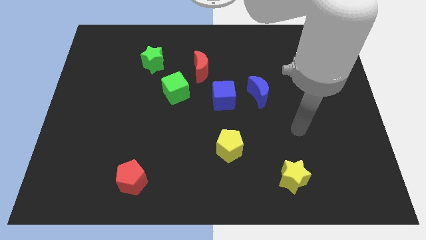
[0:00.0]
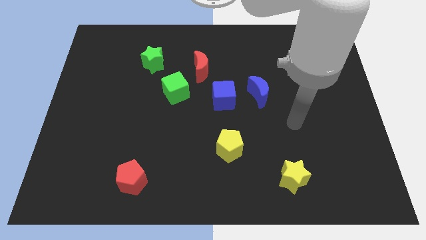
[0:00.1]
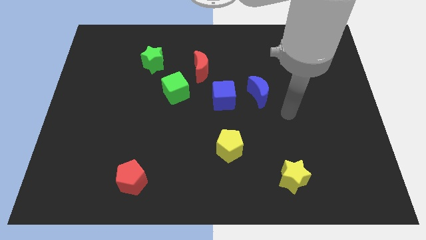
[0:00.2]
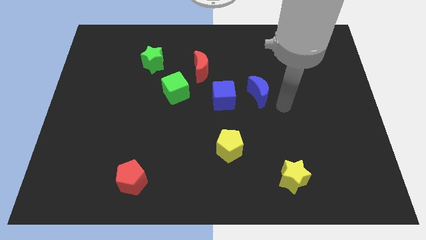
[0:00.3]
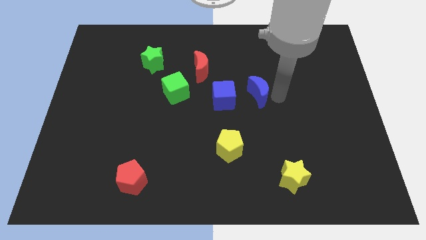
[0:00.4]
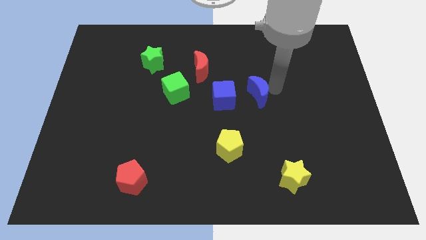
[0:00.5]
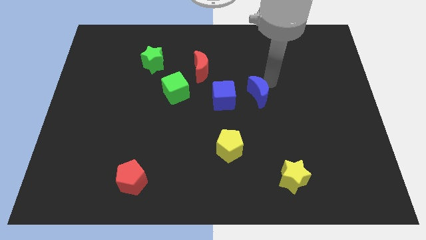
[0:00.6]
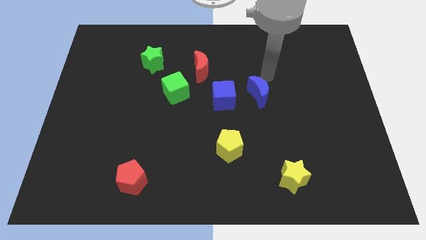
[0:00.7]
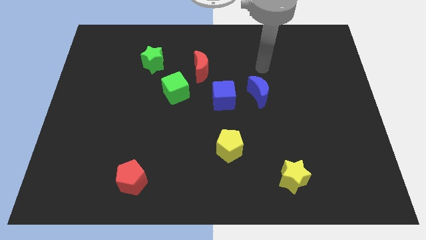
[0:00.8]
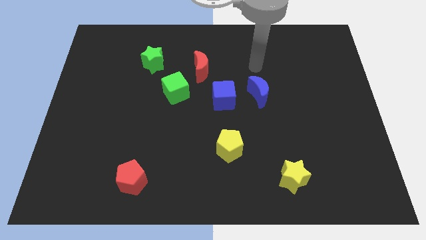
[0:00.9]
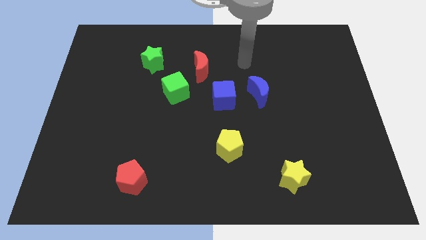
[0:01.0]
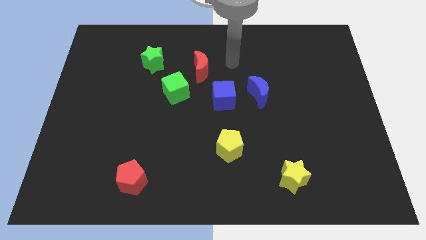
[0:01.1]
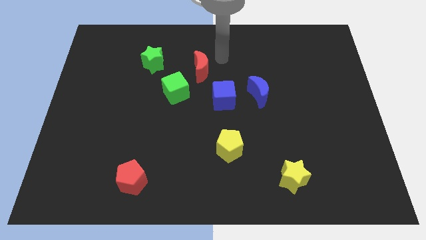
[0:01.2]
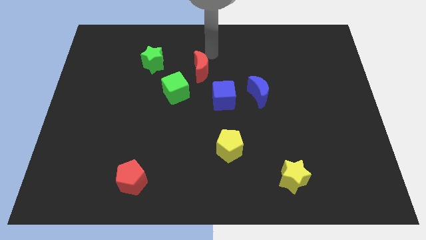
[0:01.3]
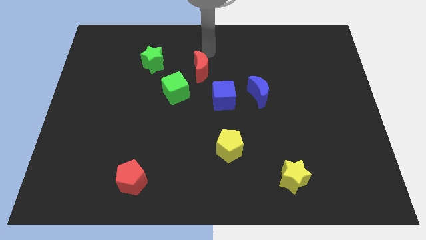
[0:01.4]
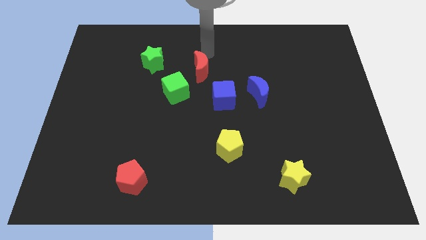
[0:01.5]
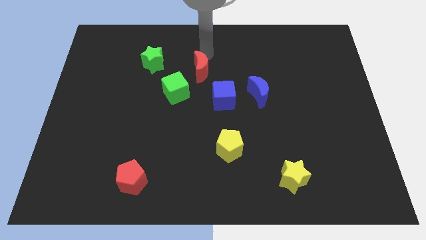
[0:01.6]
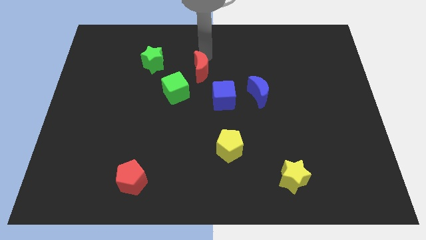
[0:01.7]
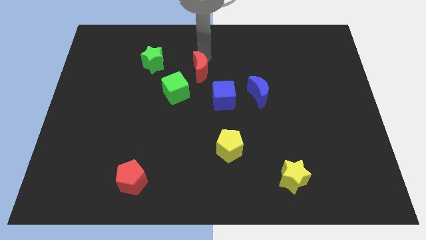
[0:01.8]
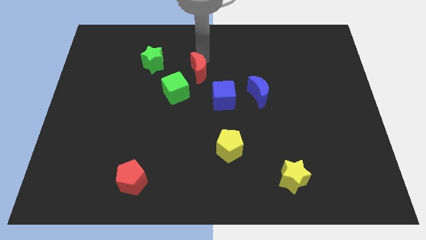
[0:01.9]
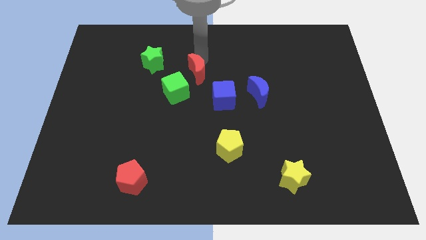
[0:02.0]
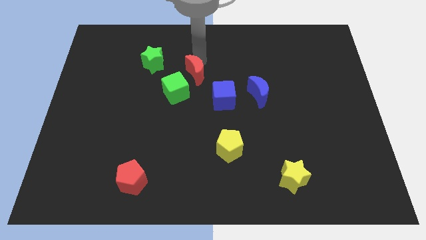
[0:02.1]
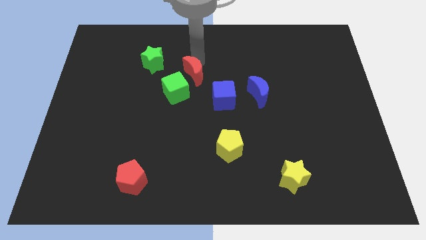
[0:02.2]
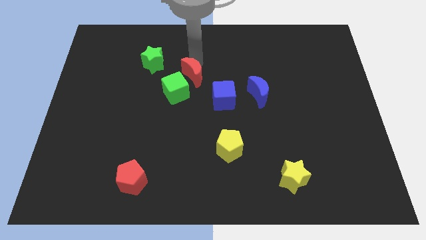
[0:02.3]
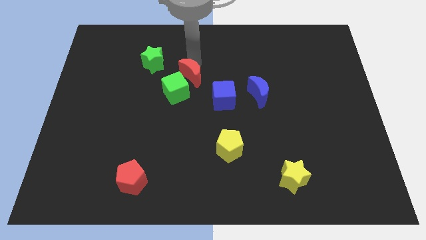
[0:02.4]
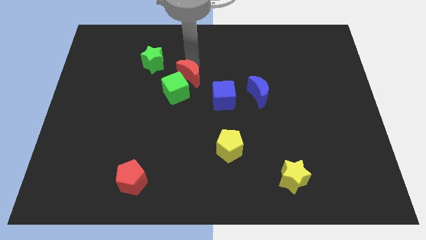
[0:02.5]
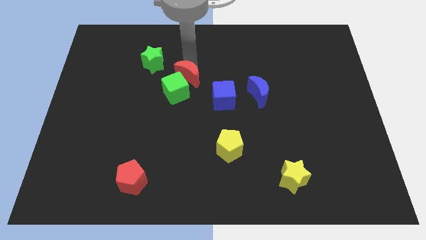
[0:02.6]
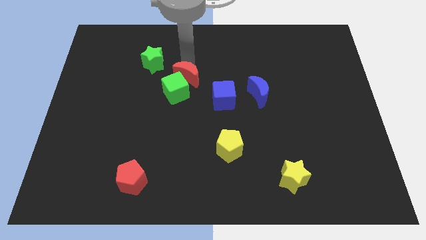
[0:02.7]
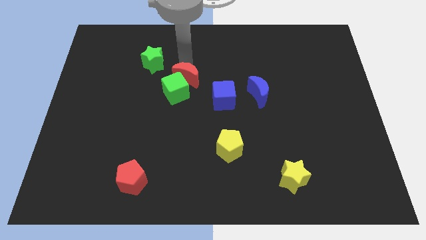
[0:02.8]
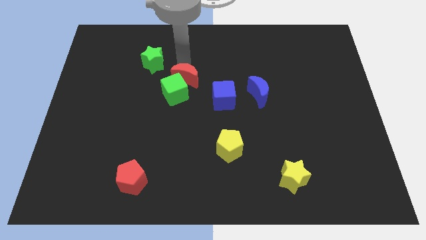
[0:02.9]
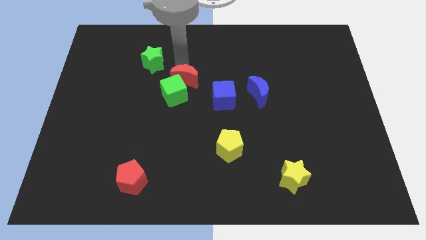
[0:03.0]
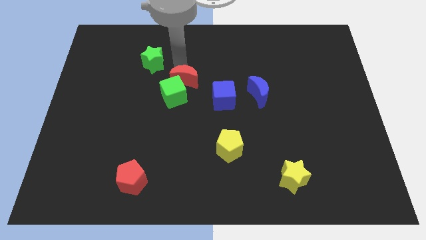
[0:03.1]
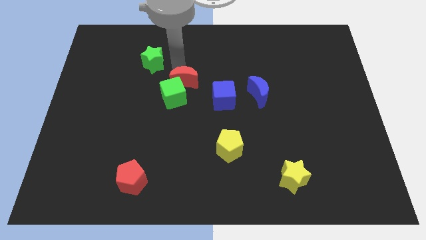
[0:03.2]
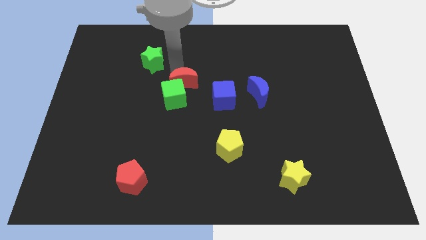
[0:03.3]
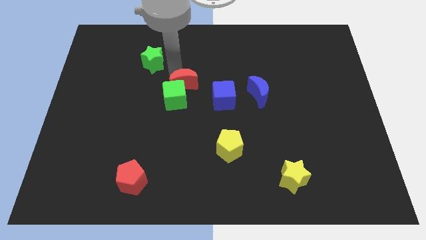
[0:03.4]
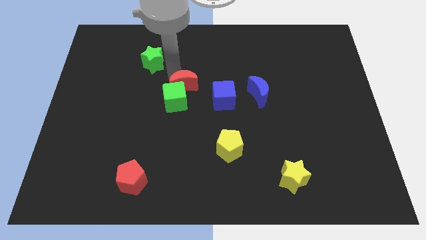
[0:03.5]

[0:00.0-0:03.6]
move the red moon a bit downwards and to the left

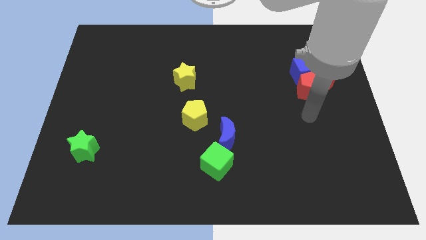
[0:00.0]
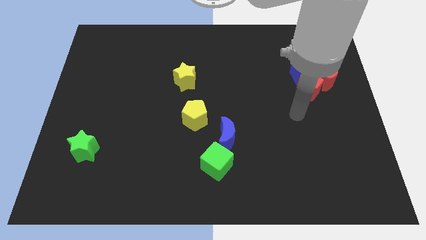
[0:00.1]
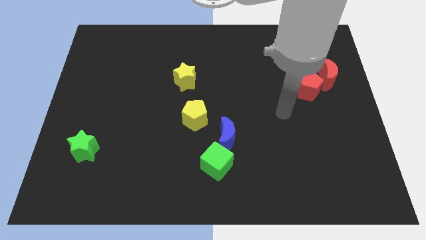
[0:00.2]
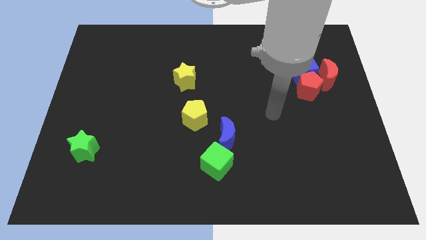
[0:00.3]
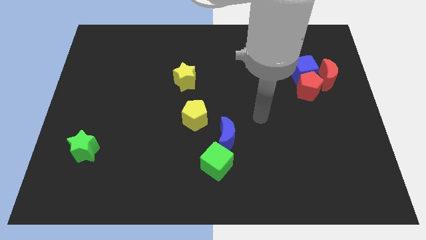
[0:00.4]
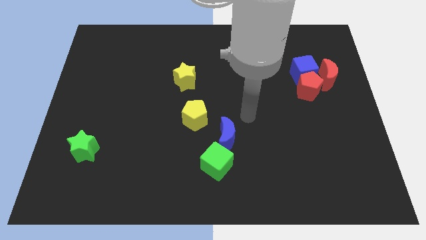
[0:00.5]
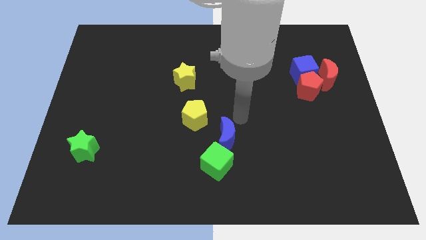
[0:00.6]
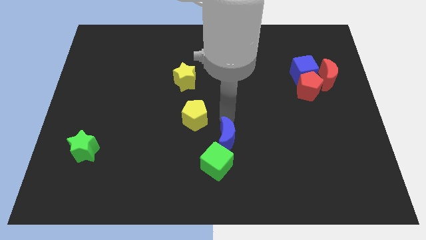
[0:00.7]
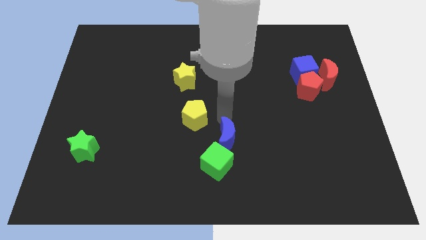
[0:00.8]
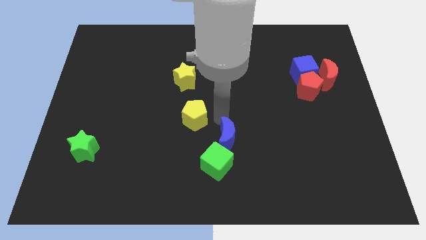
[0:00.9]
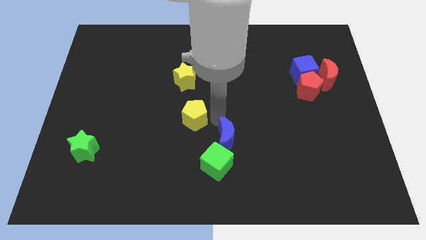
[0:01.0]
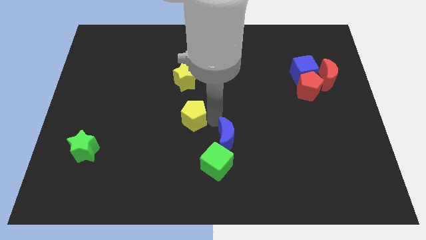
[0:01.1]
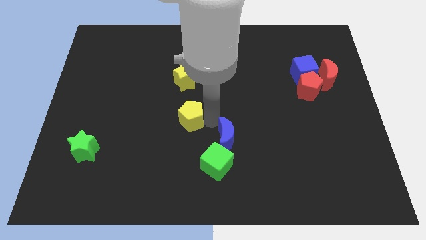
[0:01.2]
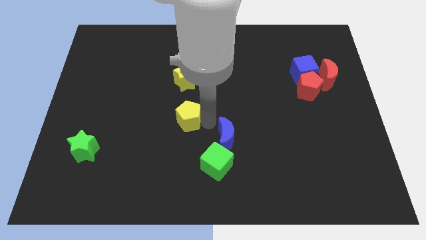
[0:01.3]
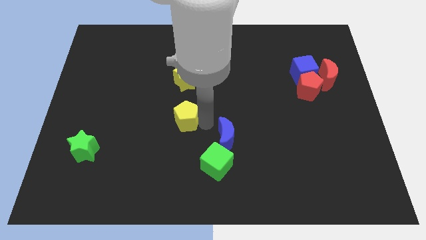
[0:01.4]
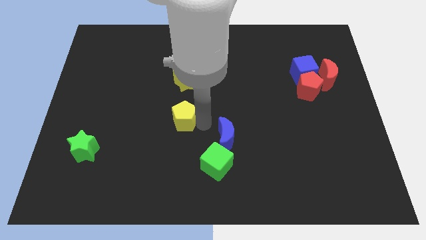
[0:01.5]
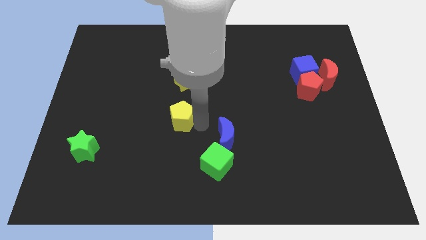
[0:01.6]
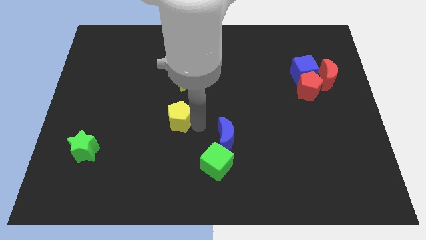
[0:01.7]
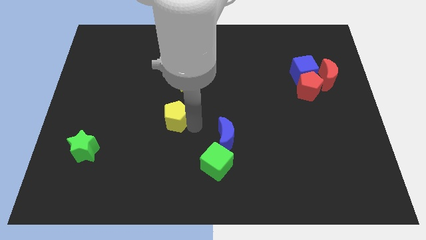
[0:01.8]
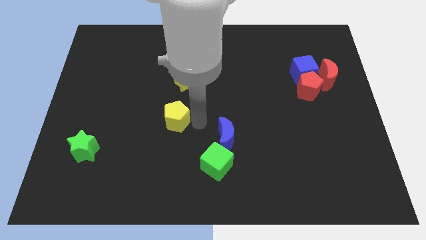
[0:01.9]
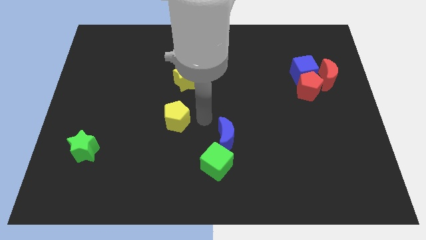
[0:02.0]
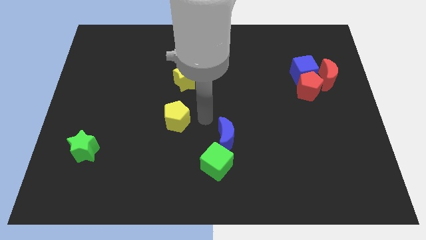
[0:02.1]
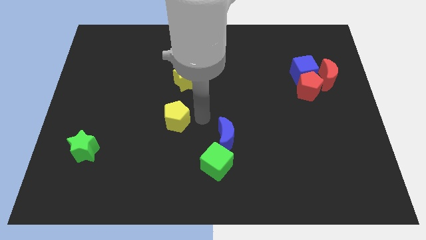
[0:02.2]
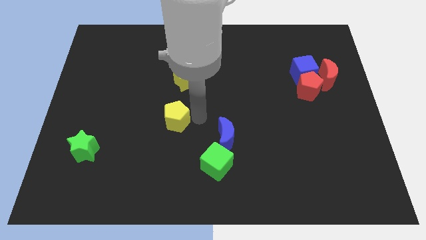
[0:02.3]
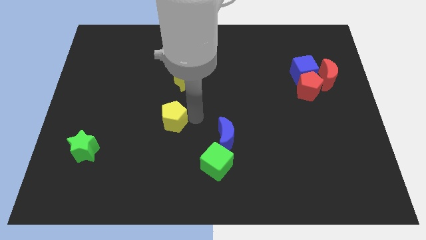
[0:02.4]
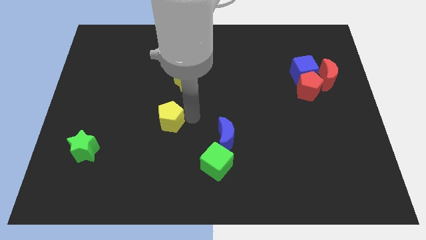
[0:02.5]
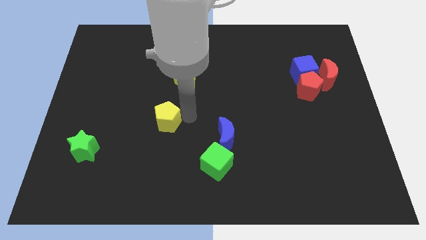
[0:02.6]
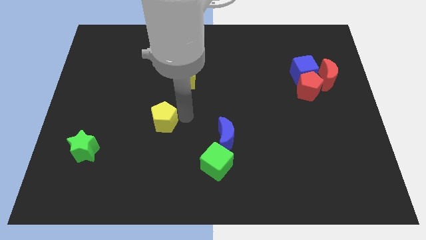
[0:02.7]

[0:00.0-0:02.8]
move the yellow pentagon a little left

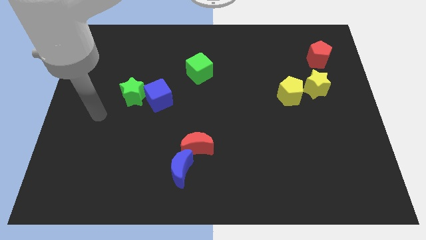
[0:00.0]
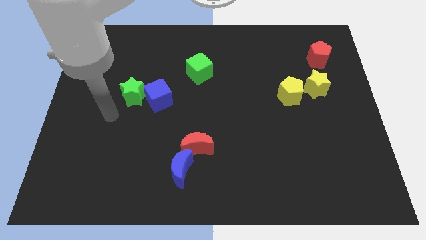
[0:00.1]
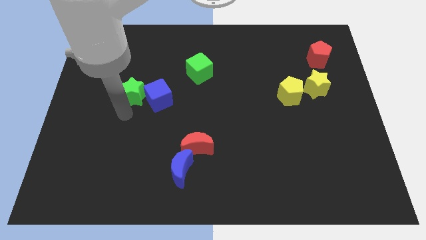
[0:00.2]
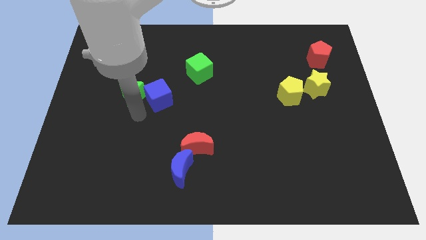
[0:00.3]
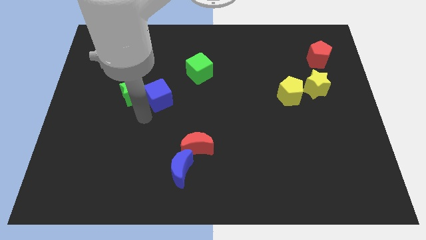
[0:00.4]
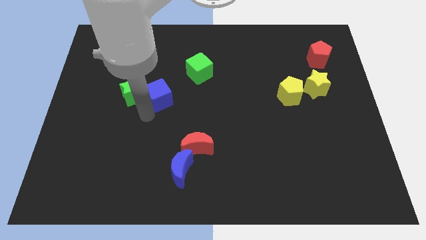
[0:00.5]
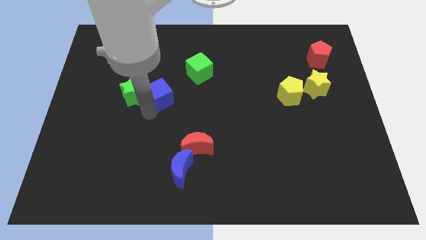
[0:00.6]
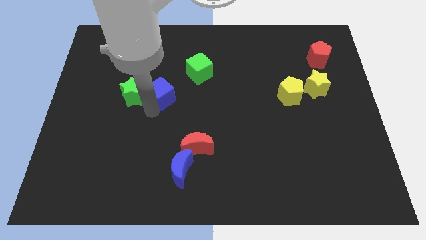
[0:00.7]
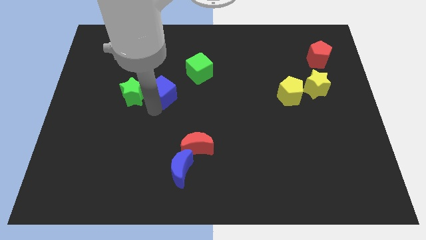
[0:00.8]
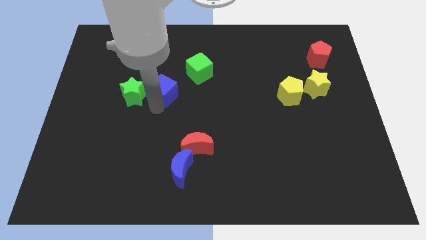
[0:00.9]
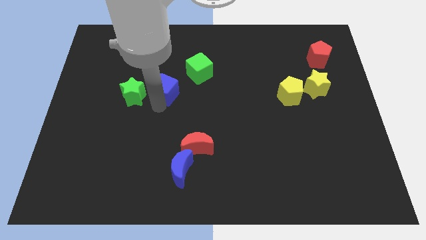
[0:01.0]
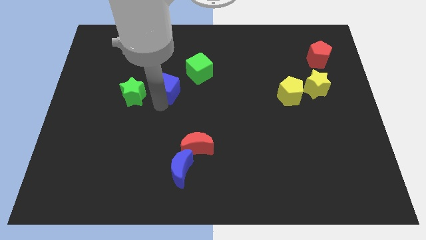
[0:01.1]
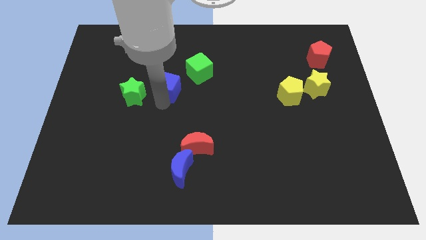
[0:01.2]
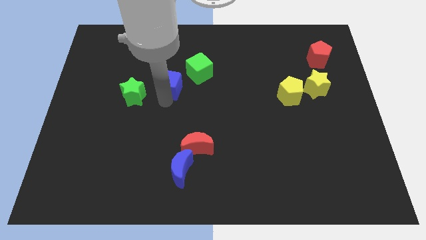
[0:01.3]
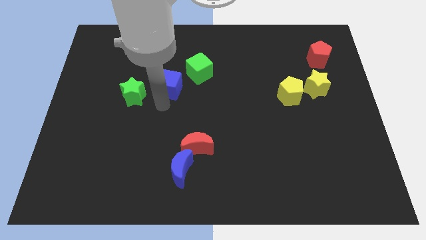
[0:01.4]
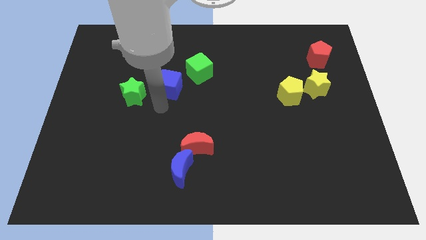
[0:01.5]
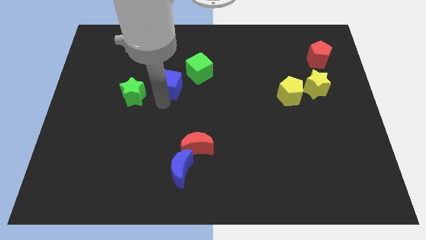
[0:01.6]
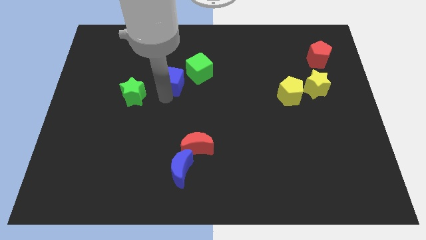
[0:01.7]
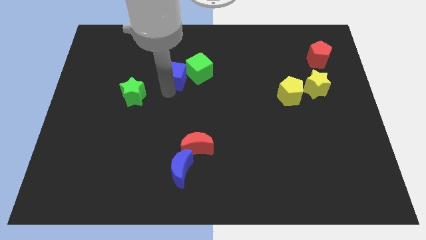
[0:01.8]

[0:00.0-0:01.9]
move the blue cube somewhat up and right diagonally
